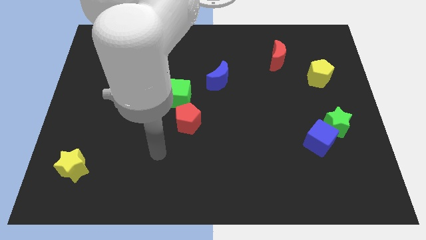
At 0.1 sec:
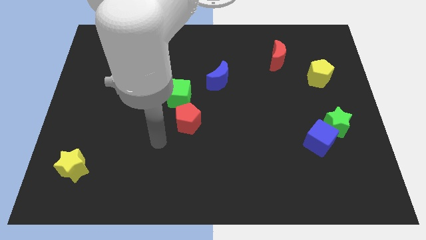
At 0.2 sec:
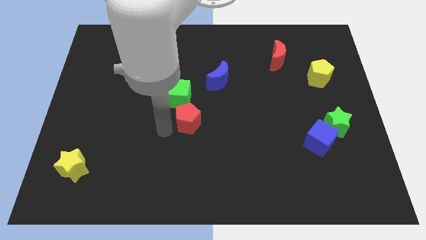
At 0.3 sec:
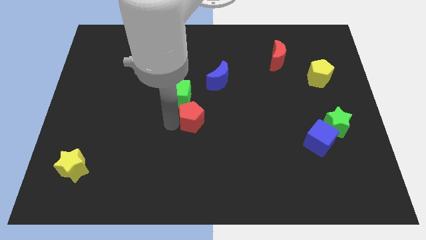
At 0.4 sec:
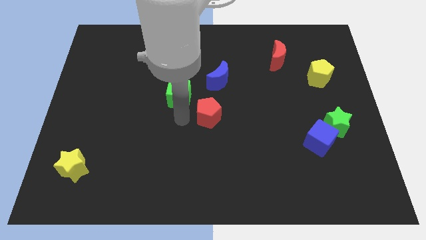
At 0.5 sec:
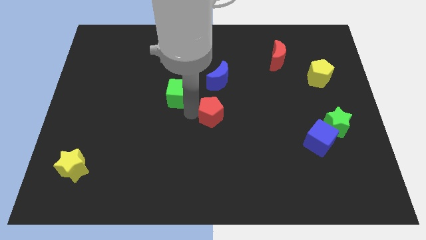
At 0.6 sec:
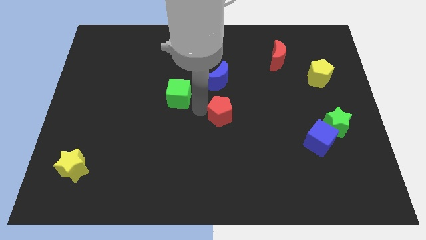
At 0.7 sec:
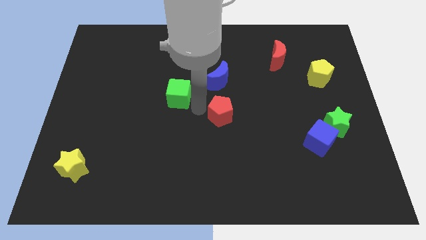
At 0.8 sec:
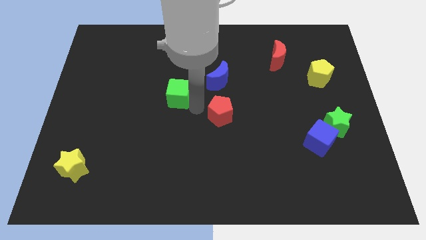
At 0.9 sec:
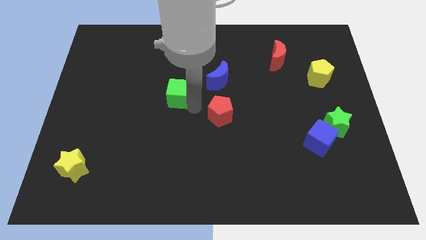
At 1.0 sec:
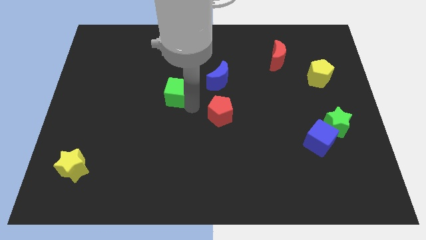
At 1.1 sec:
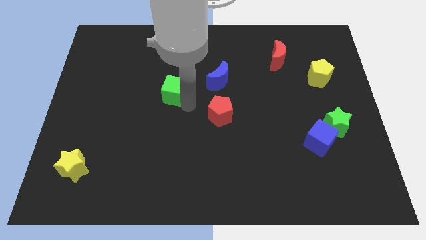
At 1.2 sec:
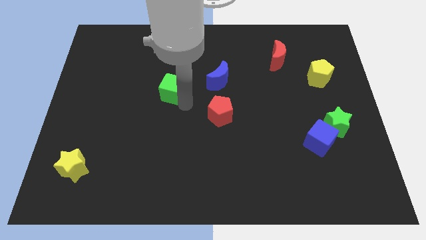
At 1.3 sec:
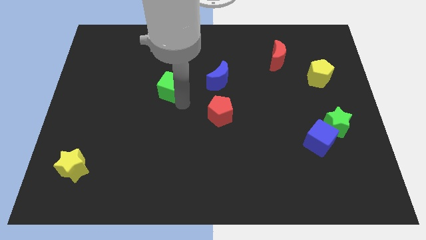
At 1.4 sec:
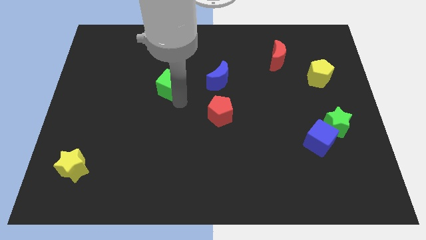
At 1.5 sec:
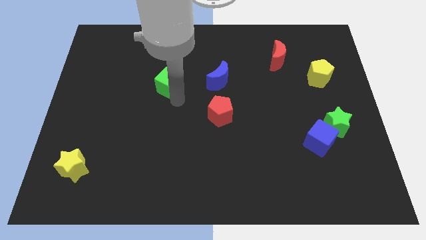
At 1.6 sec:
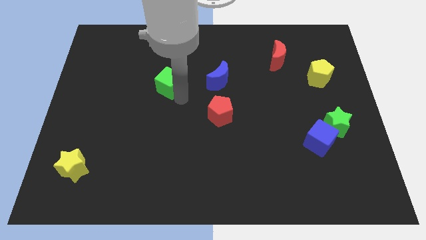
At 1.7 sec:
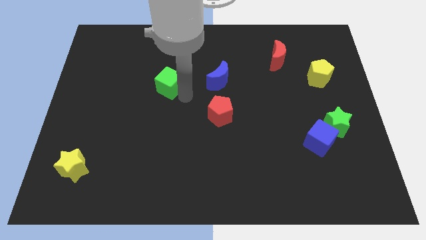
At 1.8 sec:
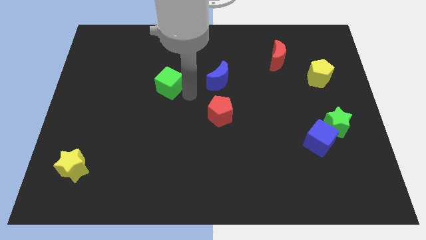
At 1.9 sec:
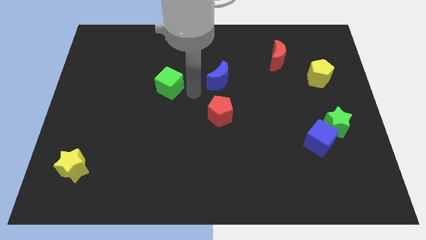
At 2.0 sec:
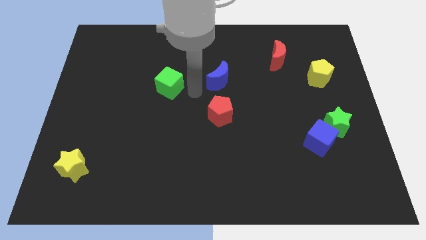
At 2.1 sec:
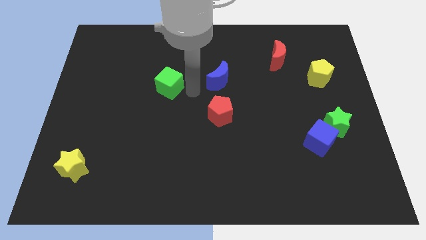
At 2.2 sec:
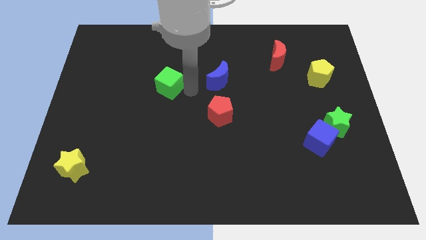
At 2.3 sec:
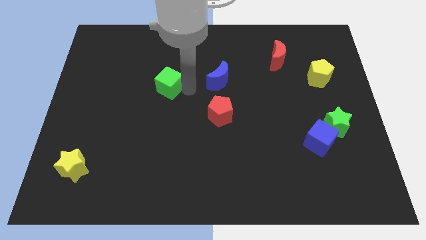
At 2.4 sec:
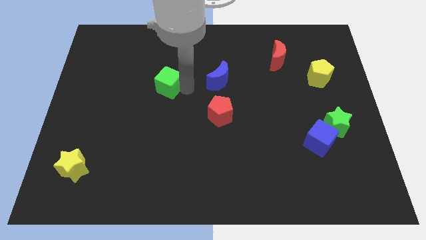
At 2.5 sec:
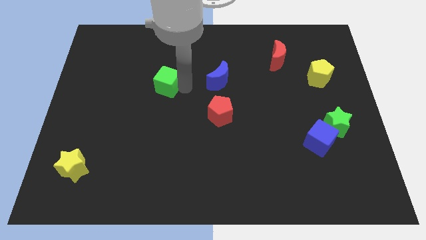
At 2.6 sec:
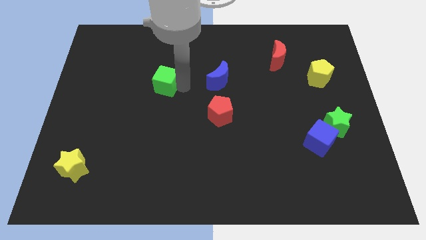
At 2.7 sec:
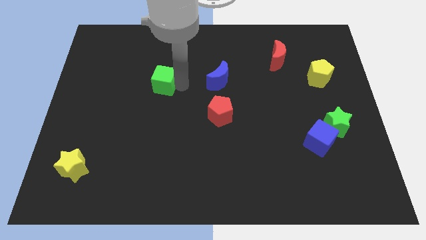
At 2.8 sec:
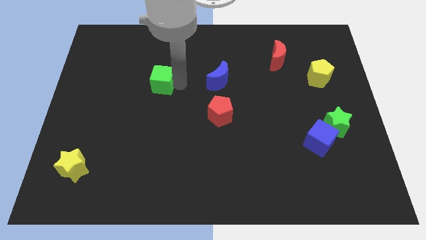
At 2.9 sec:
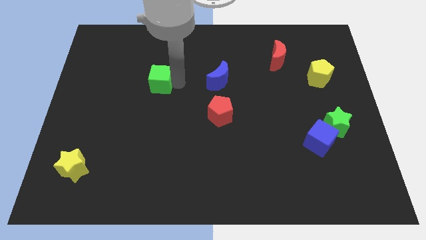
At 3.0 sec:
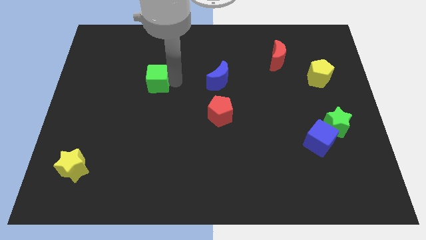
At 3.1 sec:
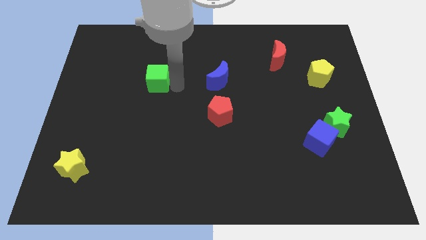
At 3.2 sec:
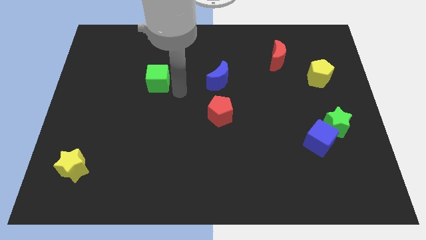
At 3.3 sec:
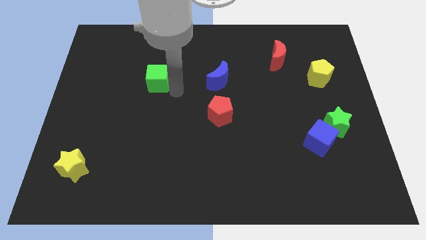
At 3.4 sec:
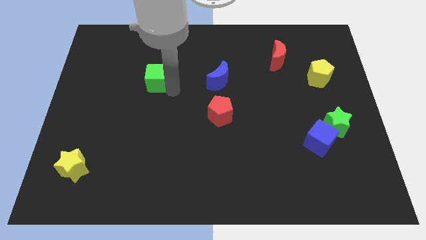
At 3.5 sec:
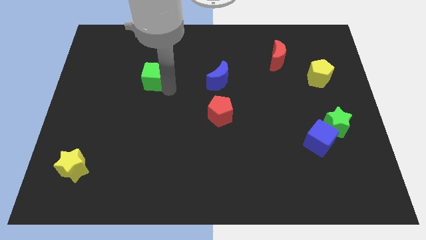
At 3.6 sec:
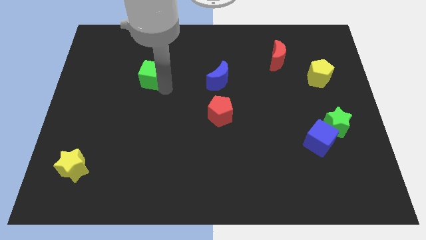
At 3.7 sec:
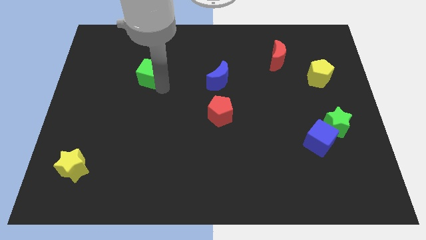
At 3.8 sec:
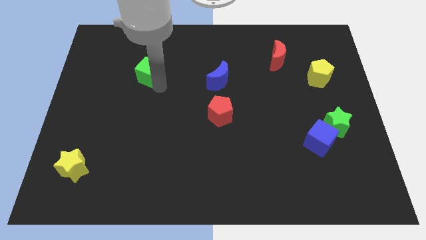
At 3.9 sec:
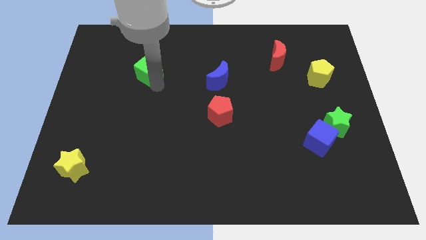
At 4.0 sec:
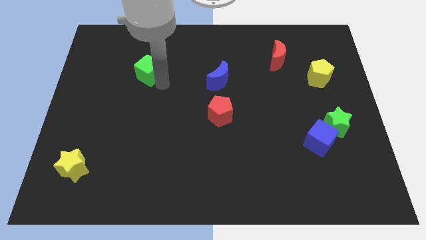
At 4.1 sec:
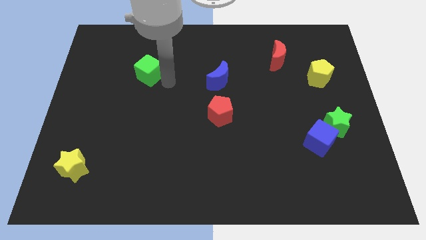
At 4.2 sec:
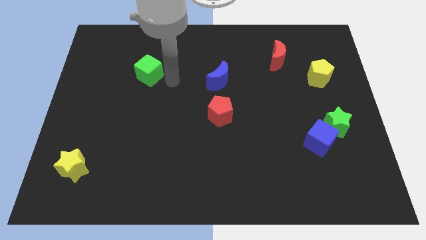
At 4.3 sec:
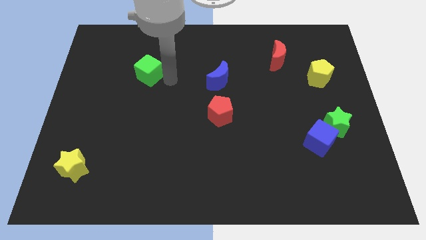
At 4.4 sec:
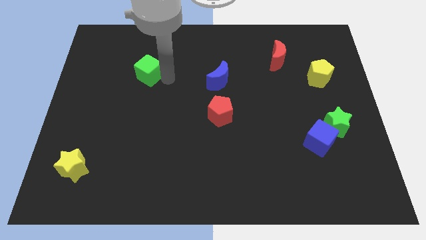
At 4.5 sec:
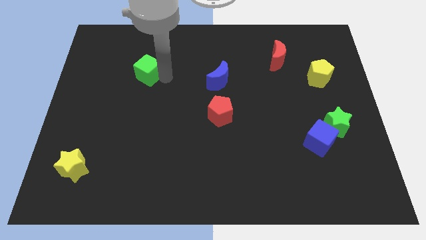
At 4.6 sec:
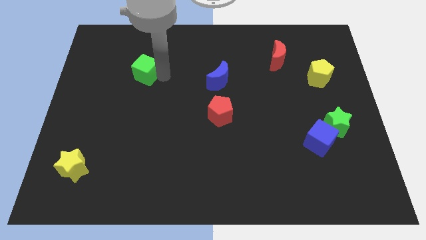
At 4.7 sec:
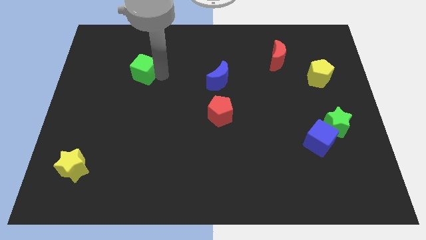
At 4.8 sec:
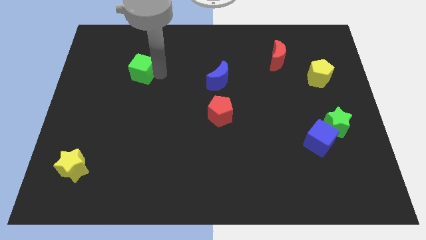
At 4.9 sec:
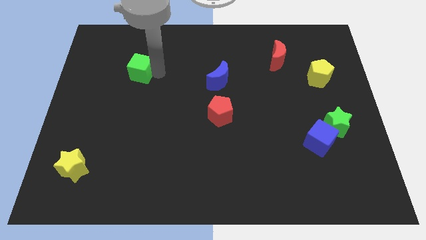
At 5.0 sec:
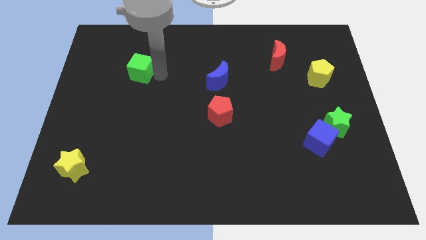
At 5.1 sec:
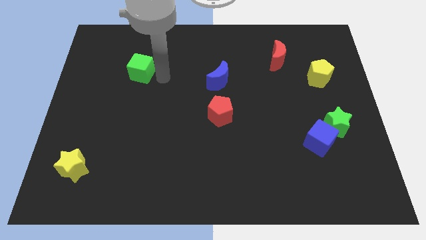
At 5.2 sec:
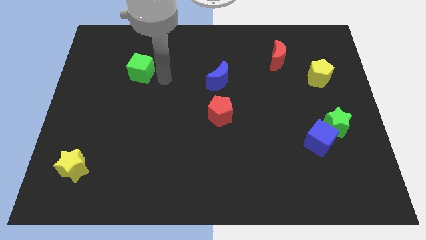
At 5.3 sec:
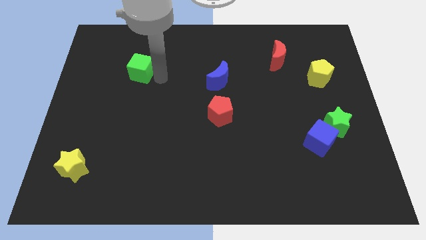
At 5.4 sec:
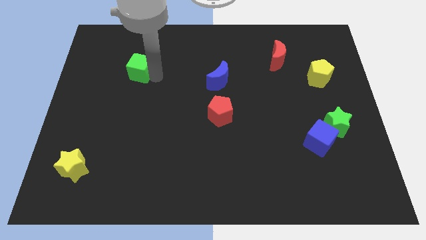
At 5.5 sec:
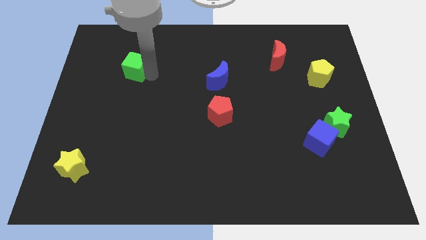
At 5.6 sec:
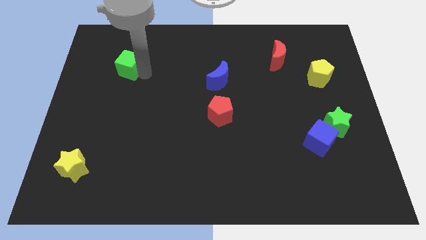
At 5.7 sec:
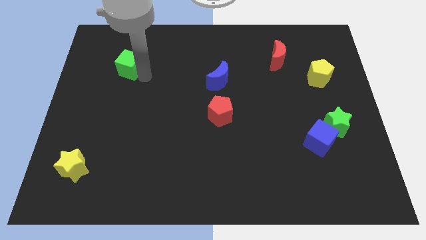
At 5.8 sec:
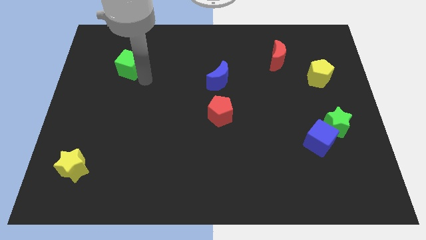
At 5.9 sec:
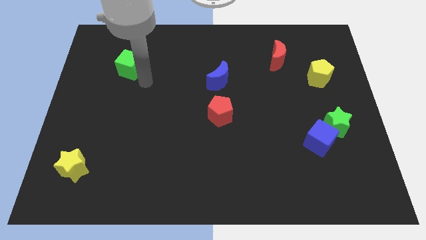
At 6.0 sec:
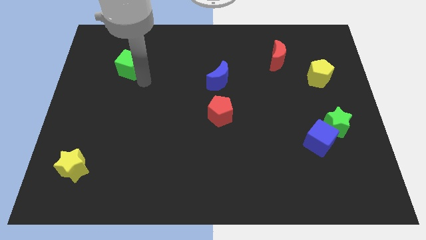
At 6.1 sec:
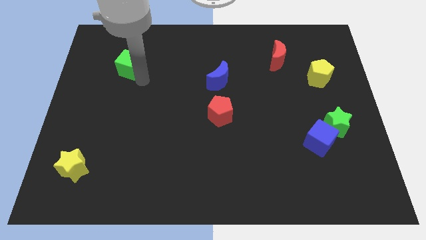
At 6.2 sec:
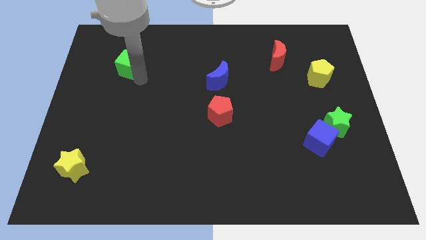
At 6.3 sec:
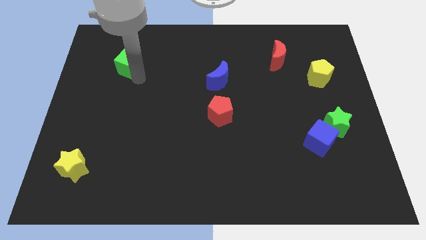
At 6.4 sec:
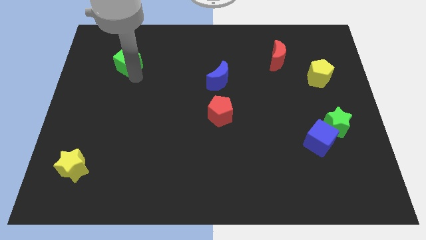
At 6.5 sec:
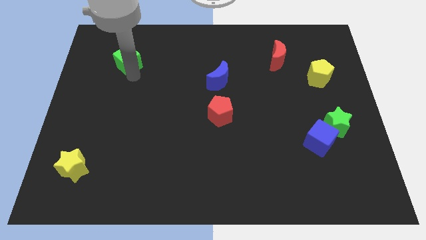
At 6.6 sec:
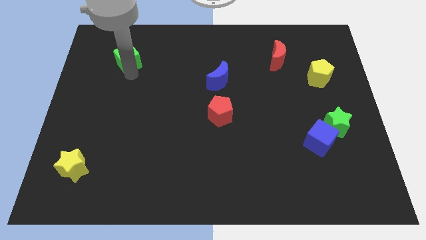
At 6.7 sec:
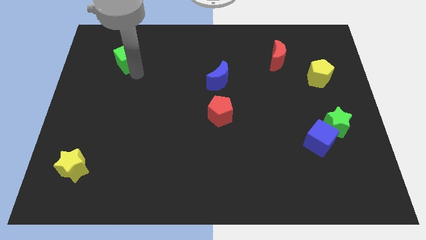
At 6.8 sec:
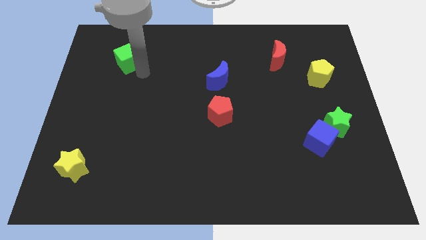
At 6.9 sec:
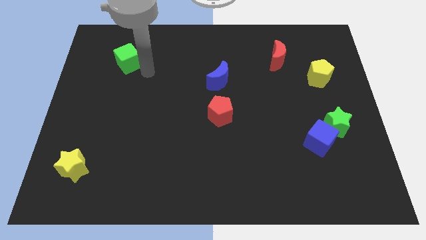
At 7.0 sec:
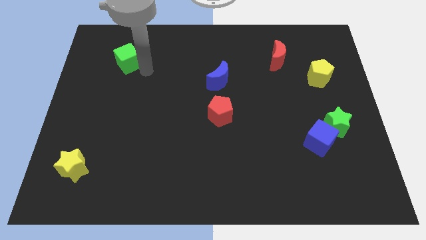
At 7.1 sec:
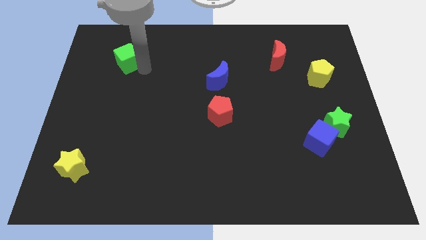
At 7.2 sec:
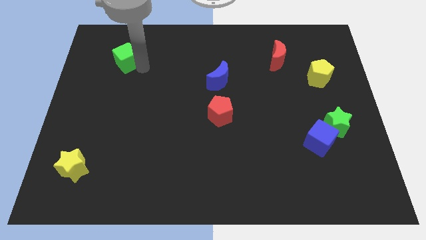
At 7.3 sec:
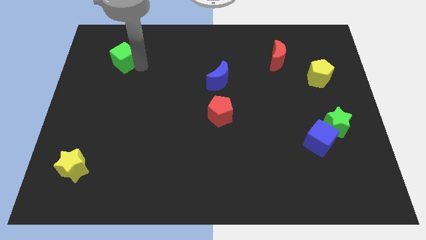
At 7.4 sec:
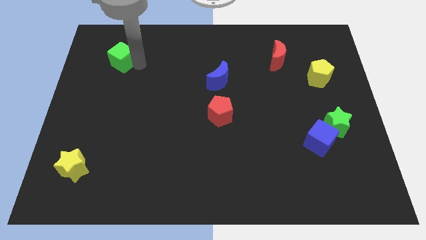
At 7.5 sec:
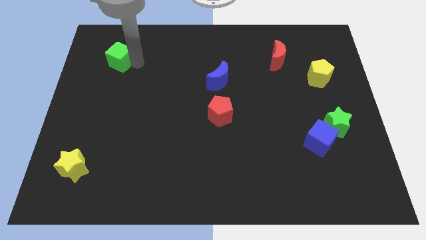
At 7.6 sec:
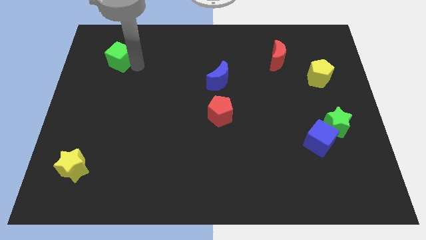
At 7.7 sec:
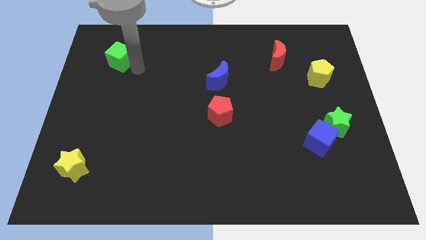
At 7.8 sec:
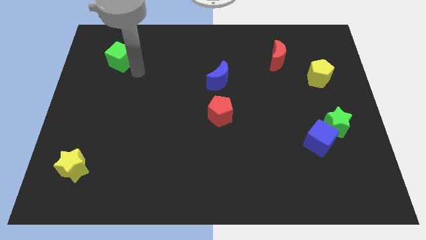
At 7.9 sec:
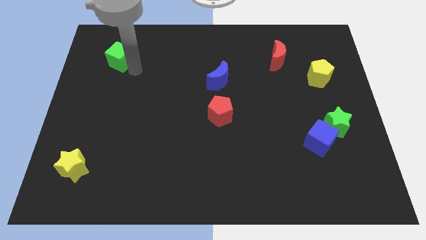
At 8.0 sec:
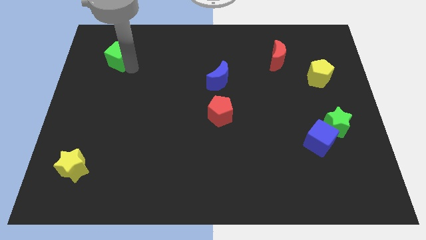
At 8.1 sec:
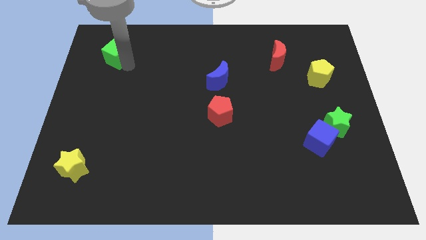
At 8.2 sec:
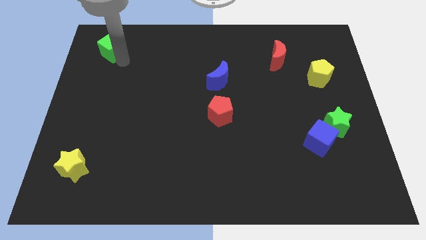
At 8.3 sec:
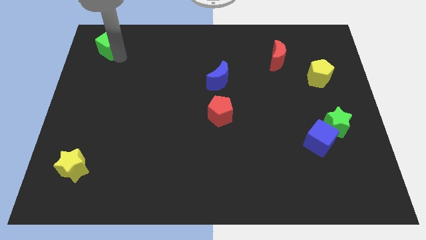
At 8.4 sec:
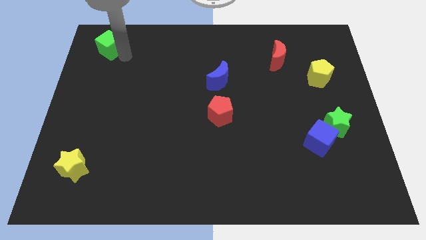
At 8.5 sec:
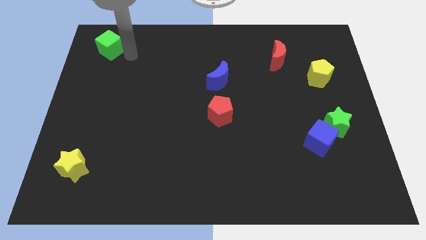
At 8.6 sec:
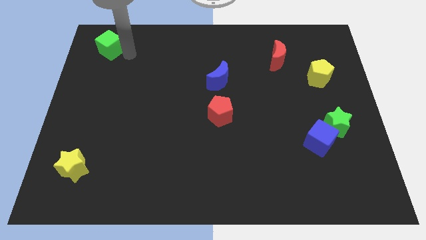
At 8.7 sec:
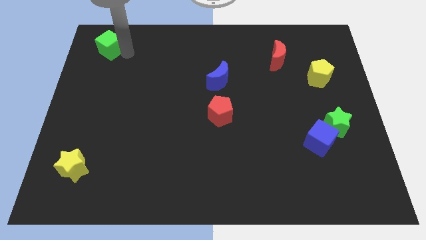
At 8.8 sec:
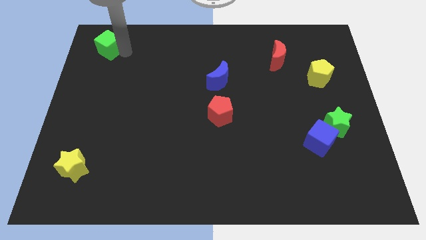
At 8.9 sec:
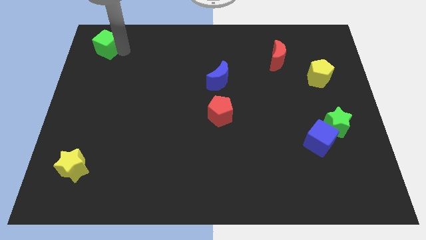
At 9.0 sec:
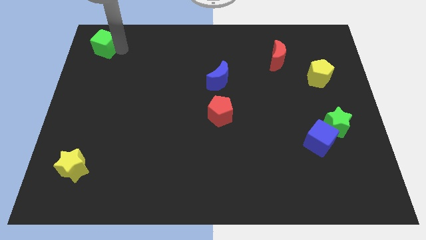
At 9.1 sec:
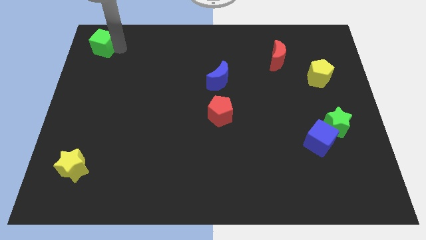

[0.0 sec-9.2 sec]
move the green cube to the top left of the board
